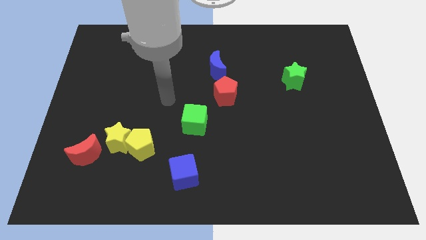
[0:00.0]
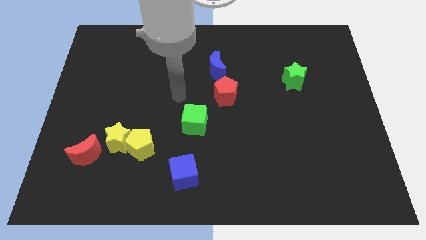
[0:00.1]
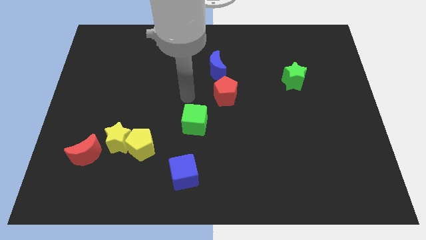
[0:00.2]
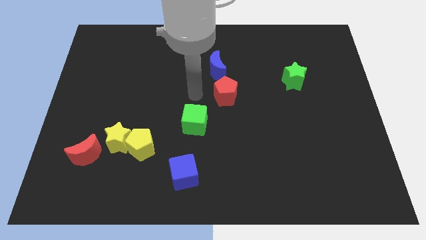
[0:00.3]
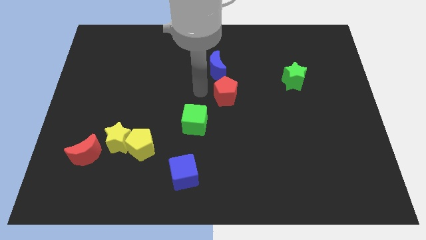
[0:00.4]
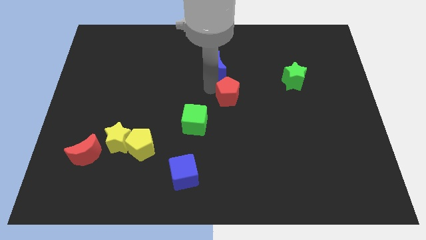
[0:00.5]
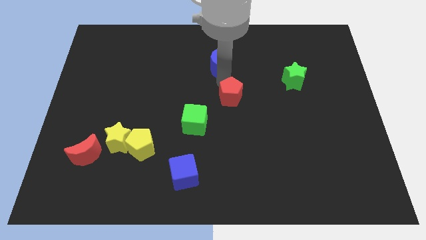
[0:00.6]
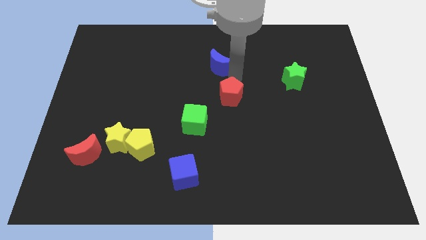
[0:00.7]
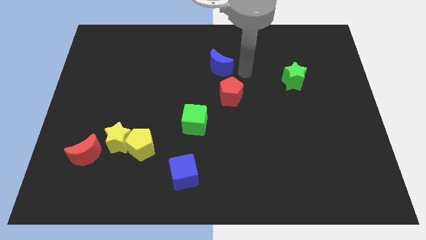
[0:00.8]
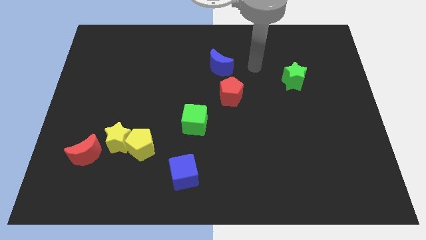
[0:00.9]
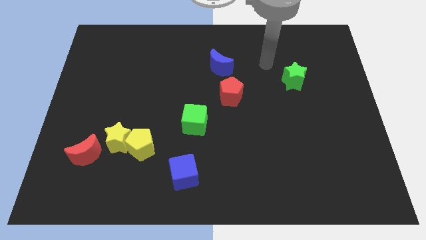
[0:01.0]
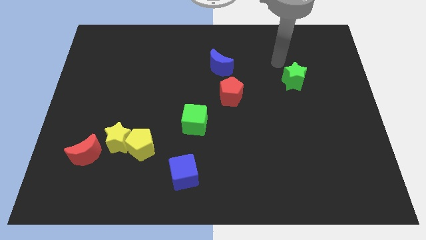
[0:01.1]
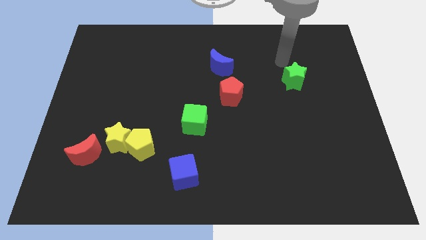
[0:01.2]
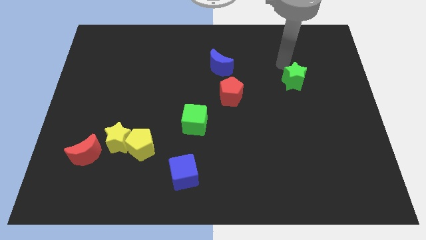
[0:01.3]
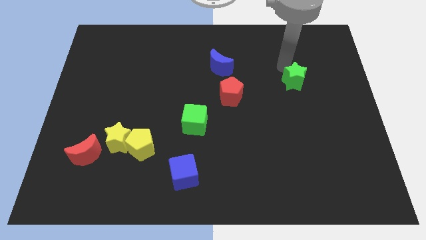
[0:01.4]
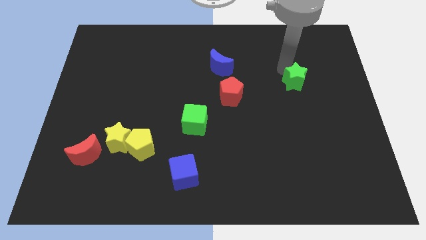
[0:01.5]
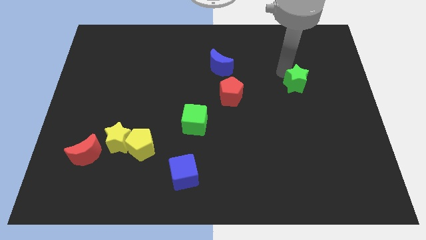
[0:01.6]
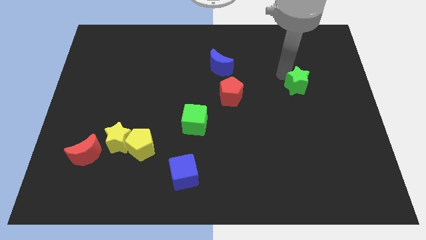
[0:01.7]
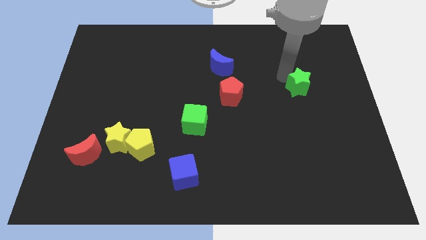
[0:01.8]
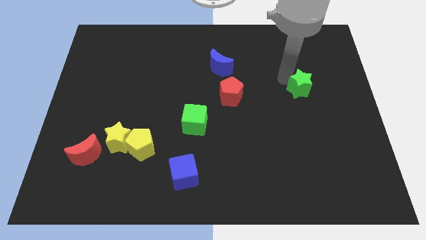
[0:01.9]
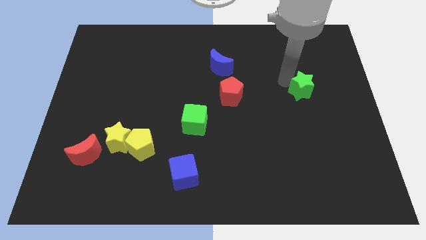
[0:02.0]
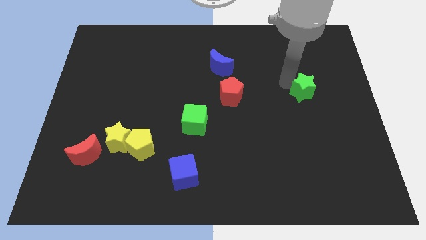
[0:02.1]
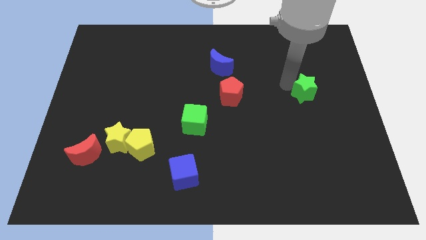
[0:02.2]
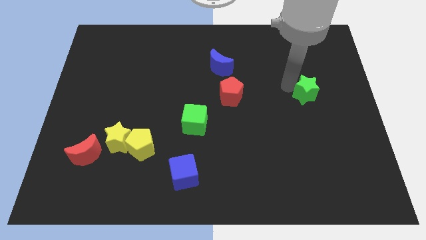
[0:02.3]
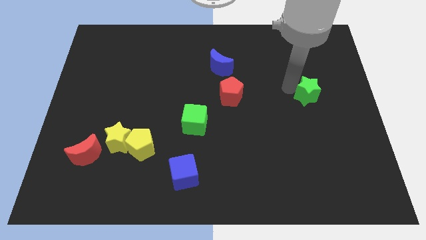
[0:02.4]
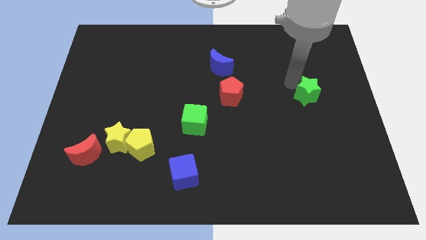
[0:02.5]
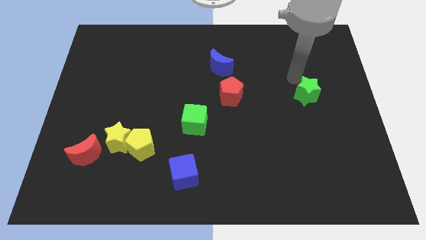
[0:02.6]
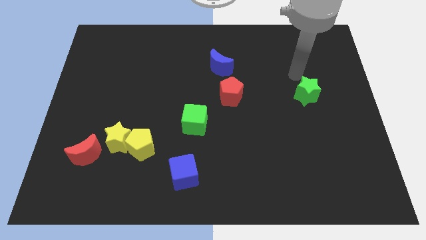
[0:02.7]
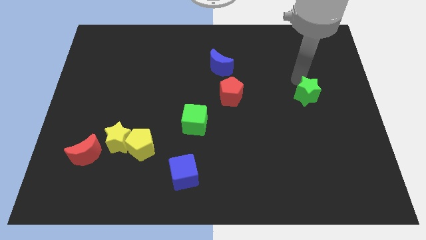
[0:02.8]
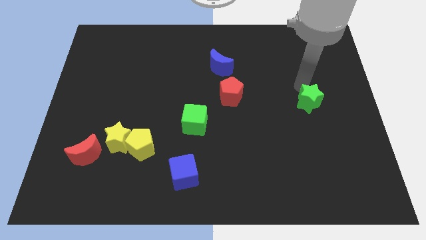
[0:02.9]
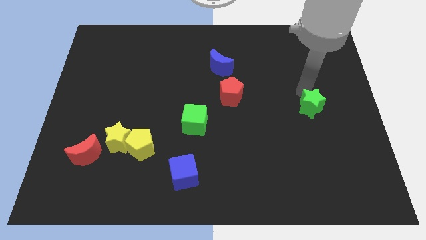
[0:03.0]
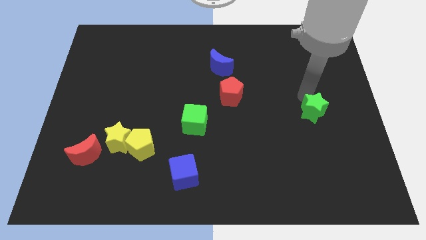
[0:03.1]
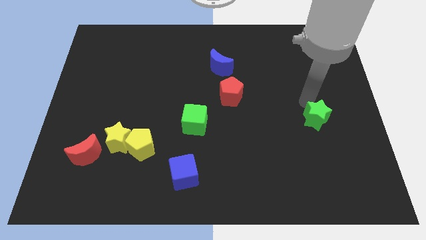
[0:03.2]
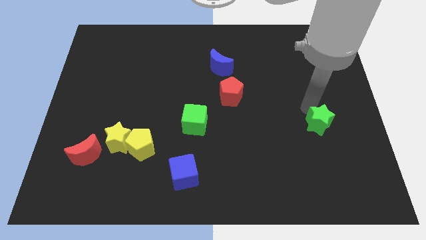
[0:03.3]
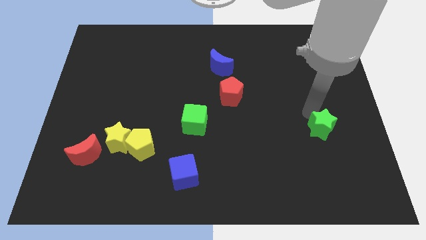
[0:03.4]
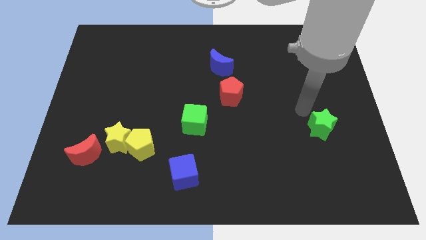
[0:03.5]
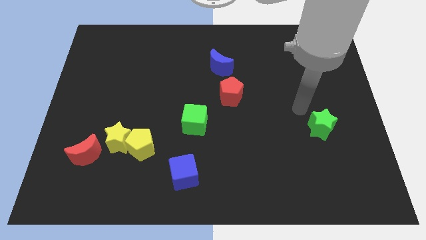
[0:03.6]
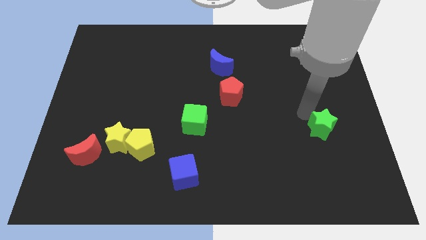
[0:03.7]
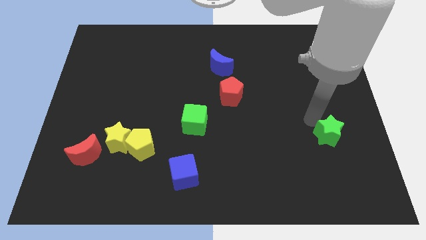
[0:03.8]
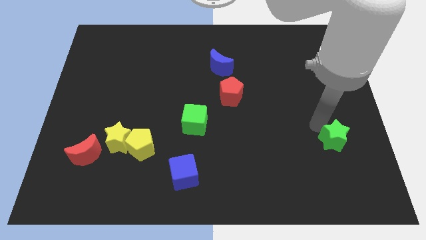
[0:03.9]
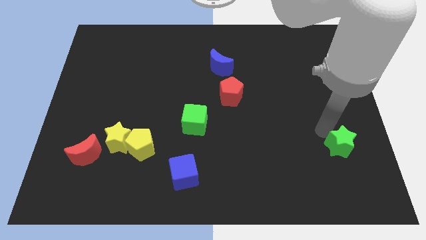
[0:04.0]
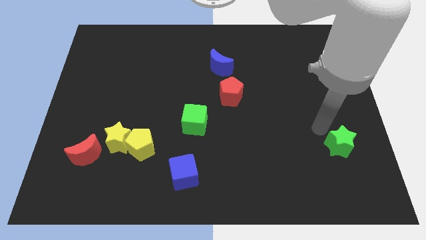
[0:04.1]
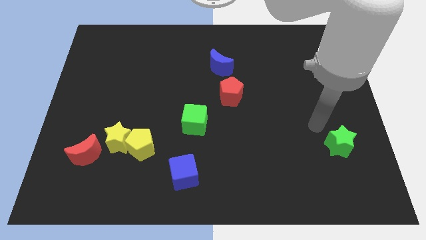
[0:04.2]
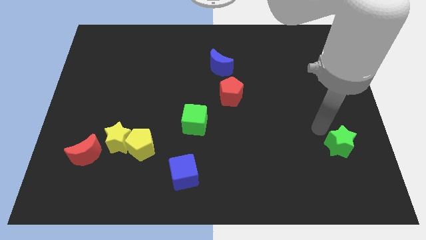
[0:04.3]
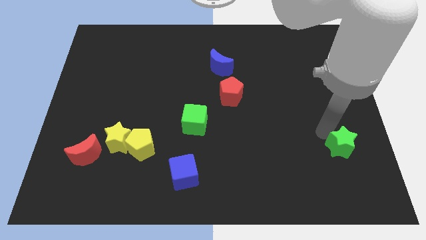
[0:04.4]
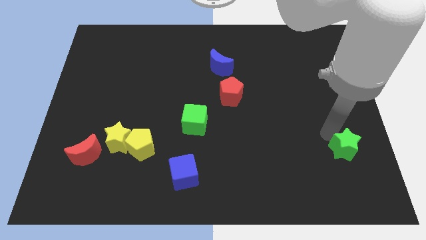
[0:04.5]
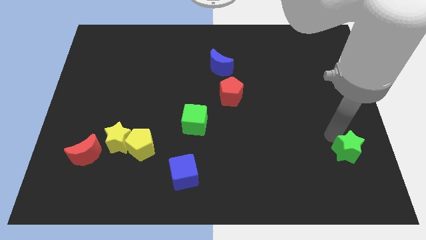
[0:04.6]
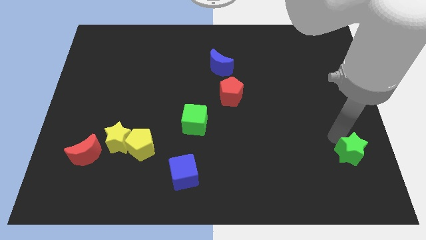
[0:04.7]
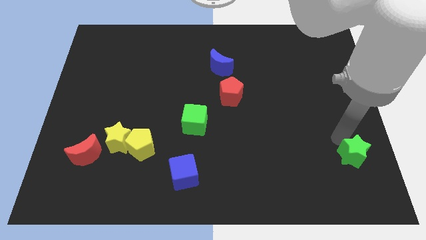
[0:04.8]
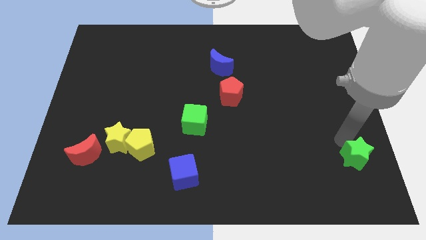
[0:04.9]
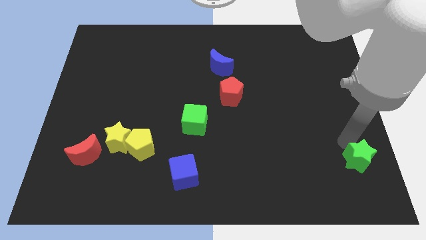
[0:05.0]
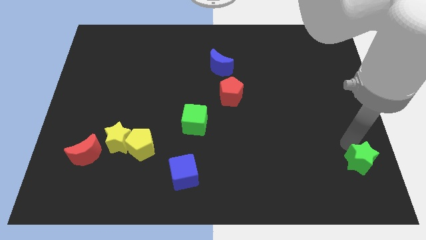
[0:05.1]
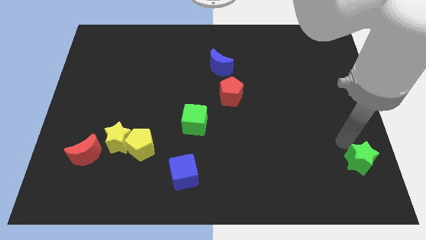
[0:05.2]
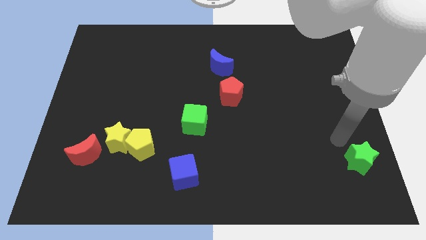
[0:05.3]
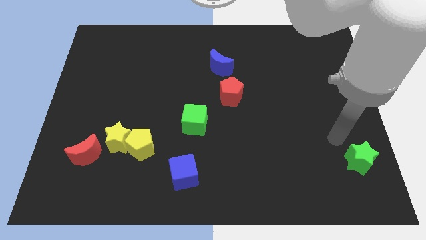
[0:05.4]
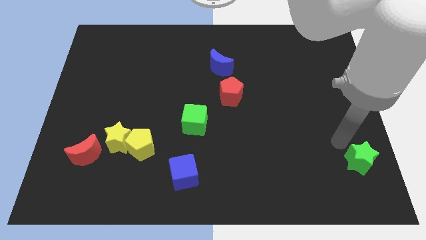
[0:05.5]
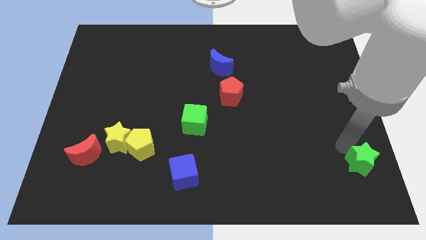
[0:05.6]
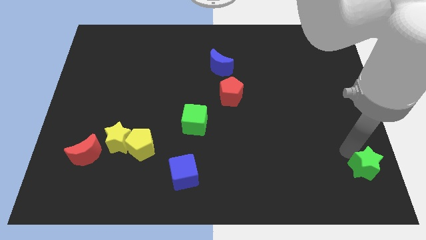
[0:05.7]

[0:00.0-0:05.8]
move the green star to the bottom right corner
